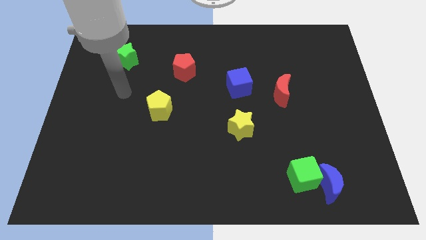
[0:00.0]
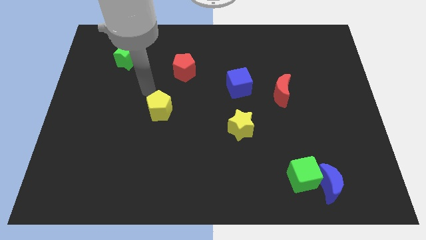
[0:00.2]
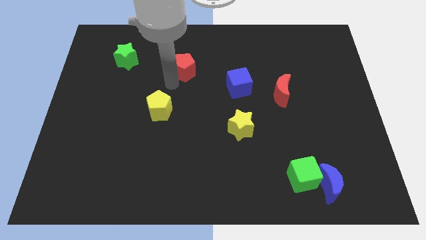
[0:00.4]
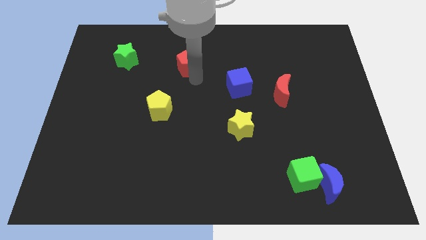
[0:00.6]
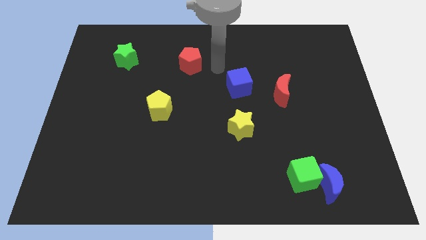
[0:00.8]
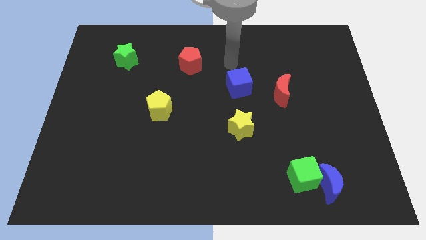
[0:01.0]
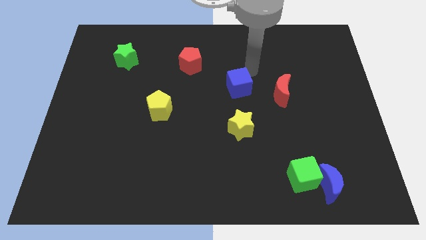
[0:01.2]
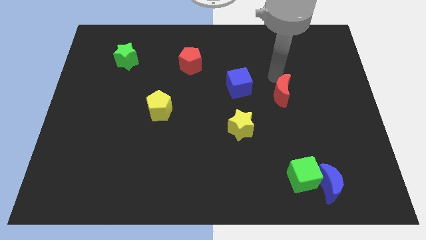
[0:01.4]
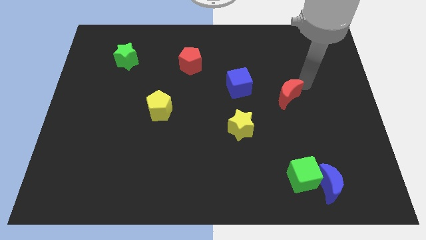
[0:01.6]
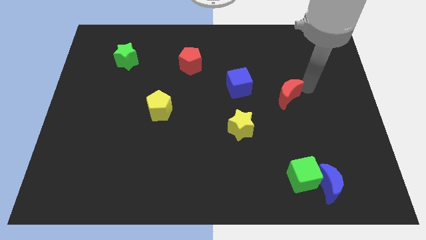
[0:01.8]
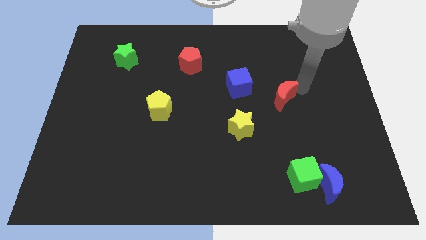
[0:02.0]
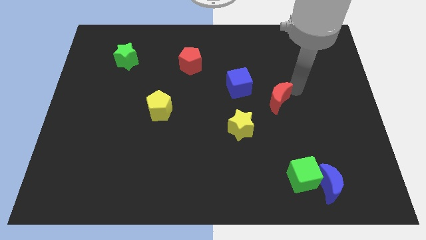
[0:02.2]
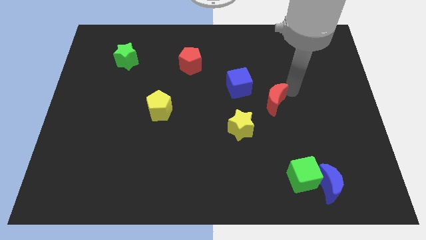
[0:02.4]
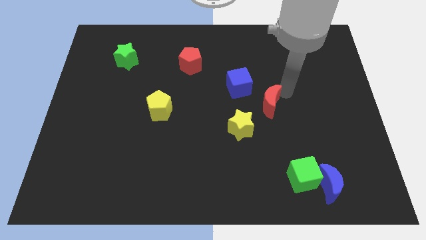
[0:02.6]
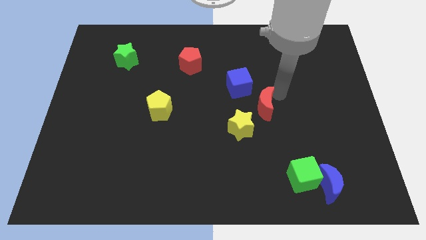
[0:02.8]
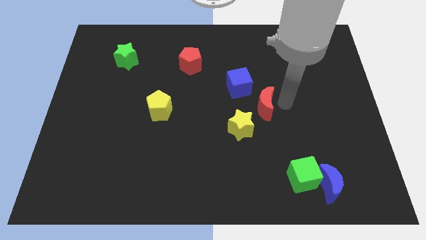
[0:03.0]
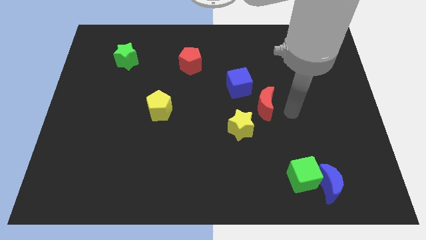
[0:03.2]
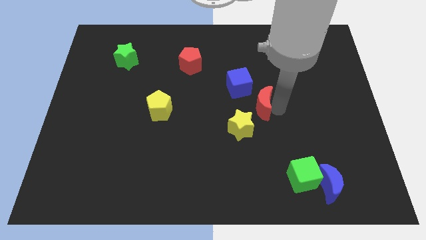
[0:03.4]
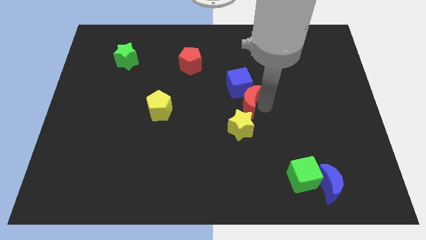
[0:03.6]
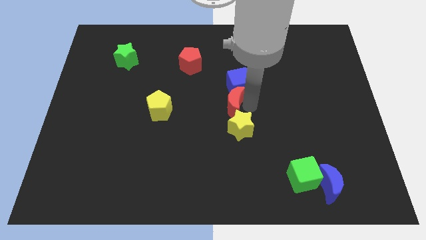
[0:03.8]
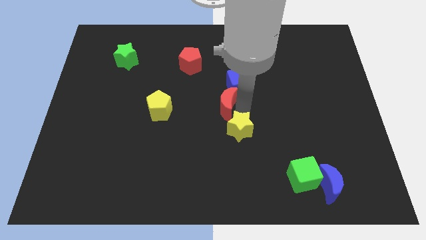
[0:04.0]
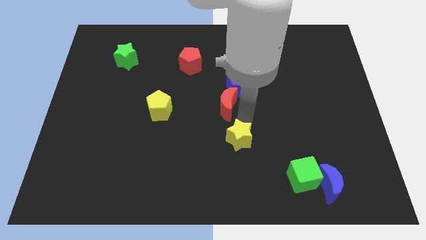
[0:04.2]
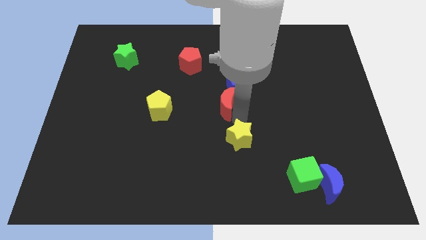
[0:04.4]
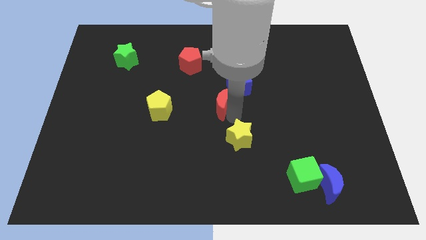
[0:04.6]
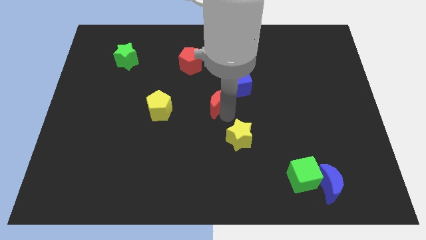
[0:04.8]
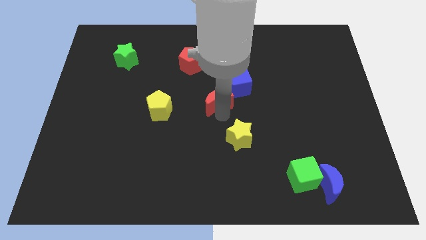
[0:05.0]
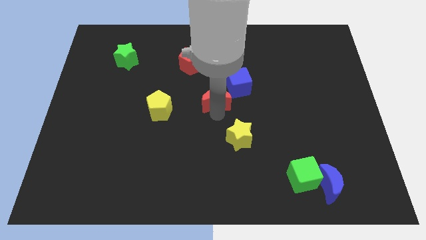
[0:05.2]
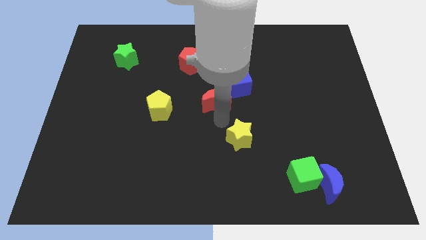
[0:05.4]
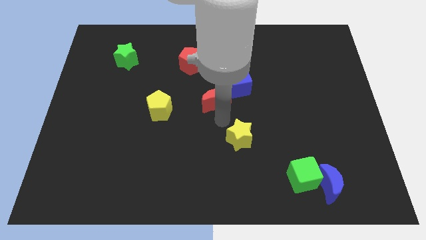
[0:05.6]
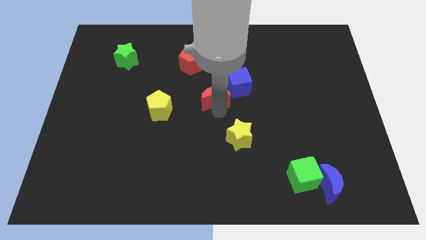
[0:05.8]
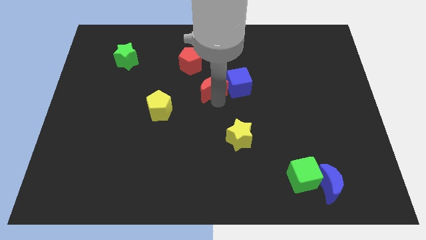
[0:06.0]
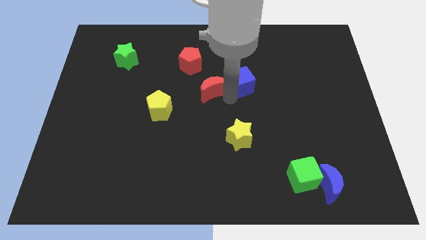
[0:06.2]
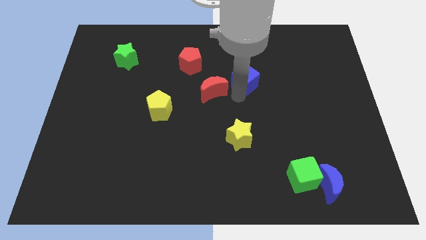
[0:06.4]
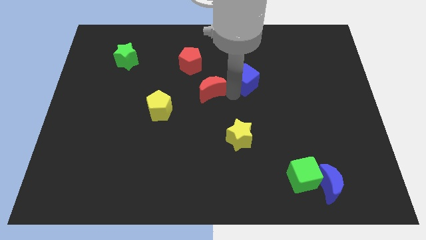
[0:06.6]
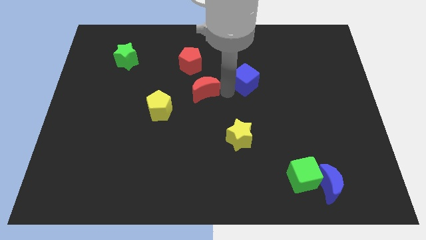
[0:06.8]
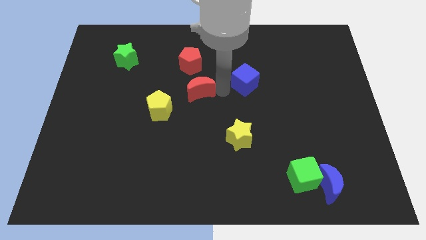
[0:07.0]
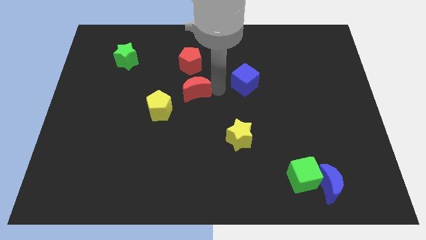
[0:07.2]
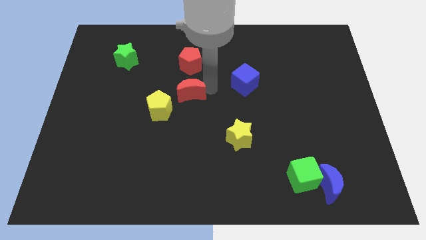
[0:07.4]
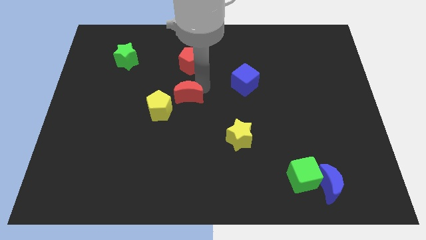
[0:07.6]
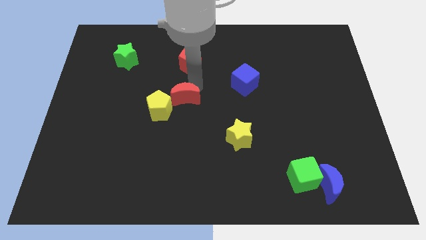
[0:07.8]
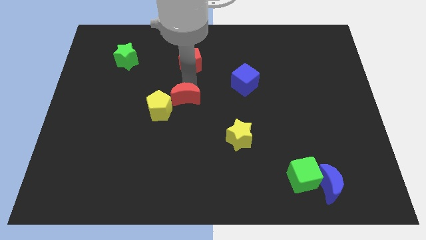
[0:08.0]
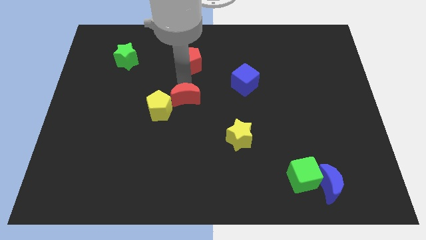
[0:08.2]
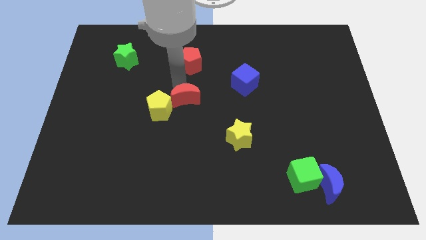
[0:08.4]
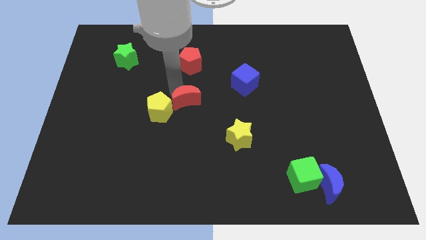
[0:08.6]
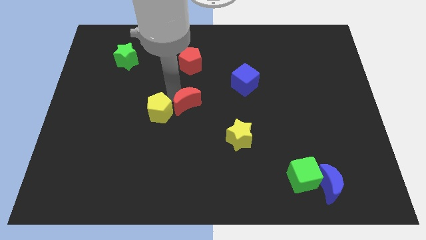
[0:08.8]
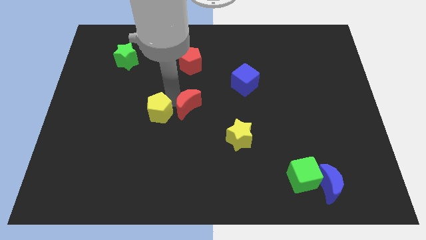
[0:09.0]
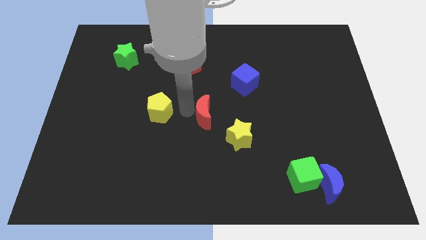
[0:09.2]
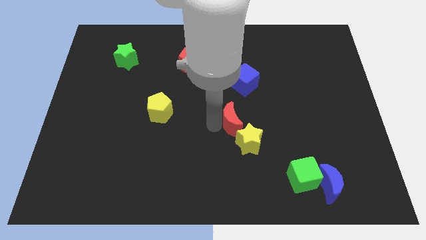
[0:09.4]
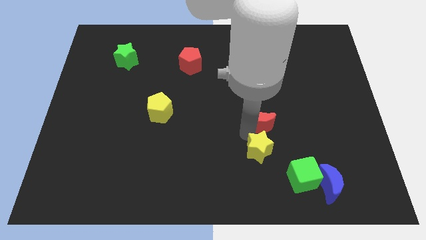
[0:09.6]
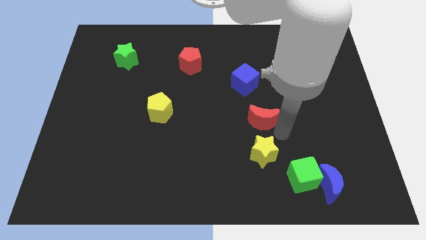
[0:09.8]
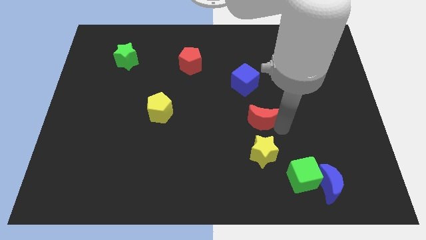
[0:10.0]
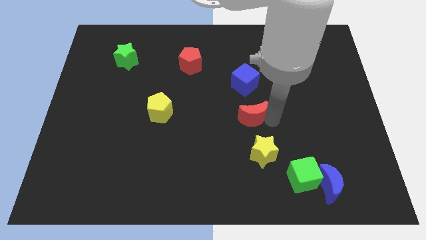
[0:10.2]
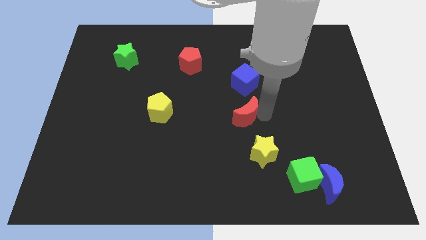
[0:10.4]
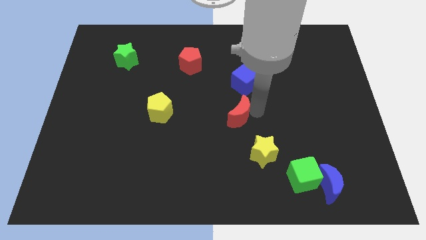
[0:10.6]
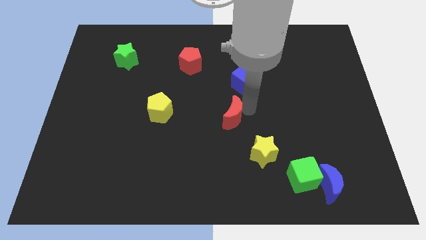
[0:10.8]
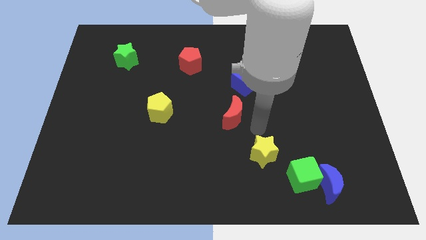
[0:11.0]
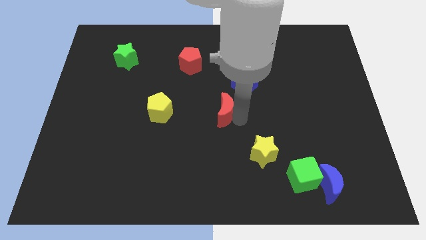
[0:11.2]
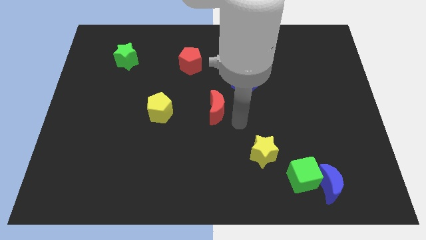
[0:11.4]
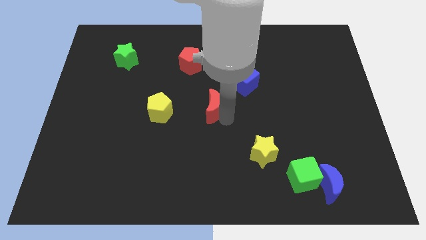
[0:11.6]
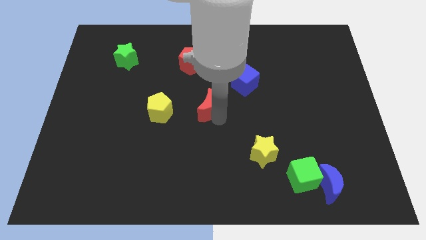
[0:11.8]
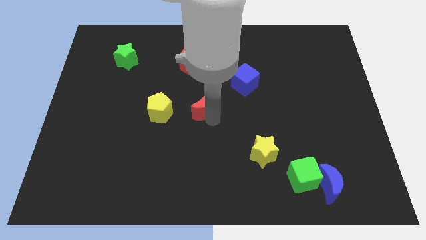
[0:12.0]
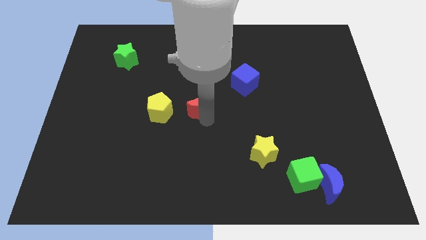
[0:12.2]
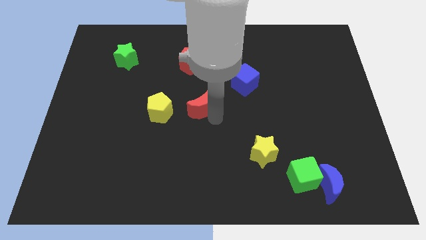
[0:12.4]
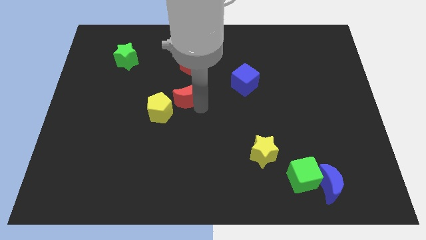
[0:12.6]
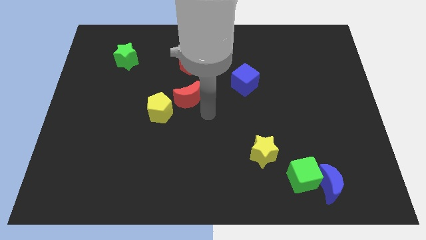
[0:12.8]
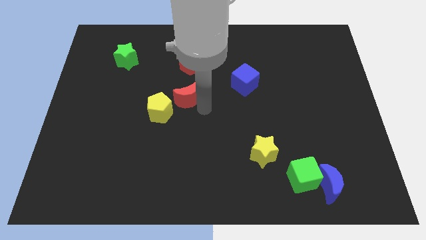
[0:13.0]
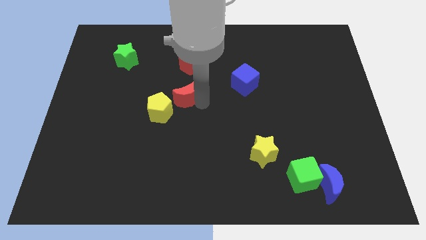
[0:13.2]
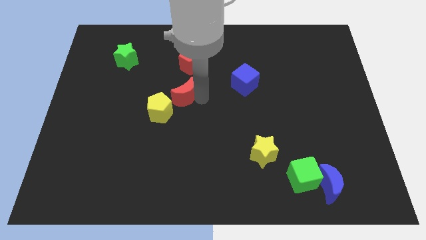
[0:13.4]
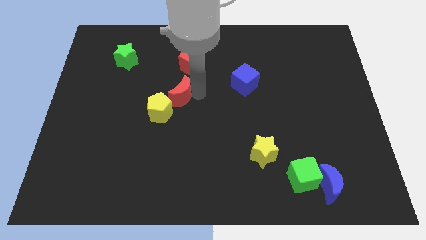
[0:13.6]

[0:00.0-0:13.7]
push the red moon to the top of the yellow pentagon

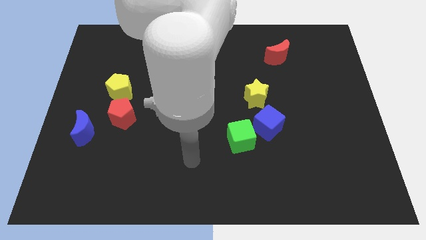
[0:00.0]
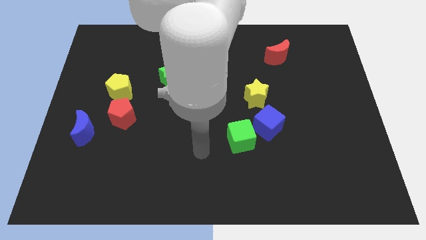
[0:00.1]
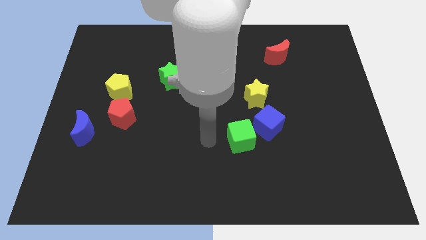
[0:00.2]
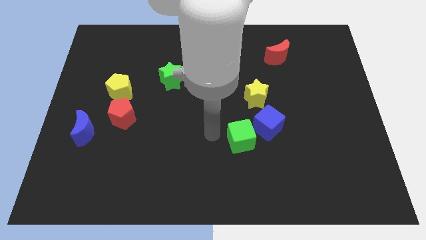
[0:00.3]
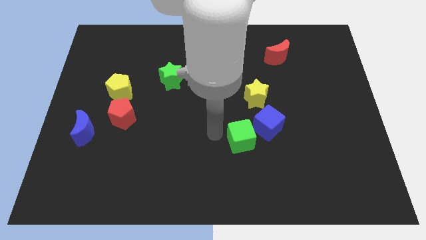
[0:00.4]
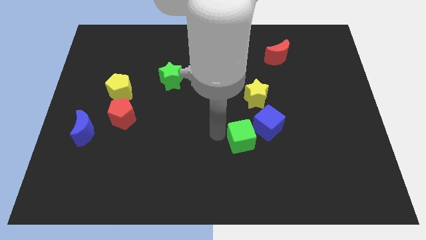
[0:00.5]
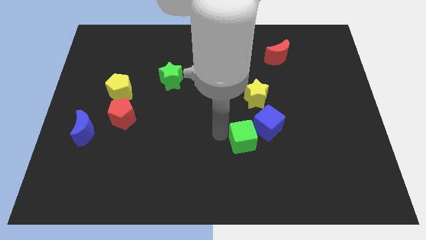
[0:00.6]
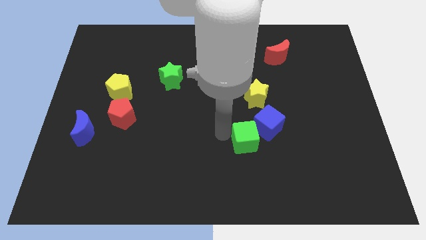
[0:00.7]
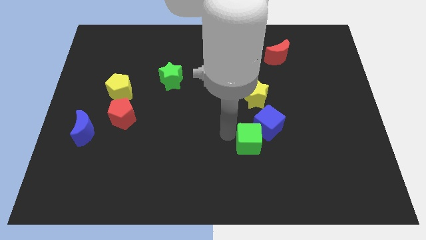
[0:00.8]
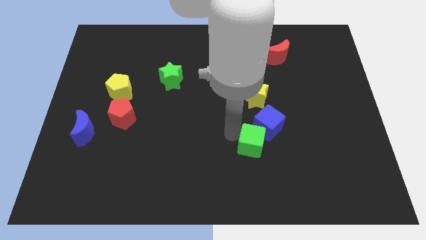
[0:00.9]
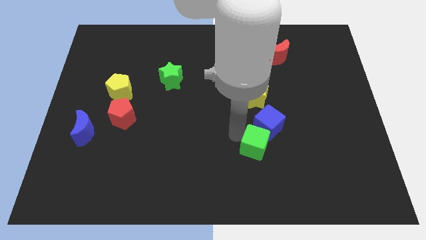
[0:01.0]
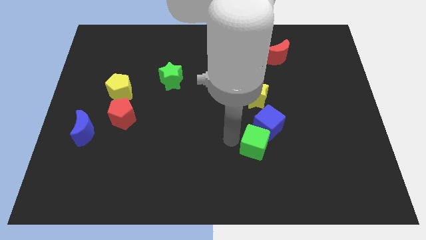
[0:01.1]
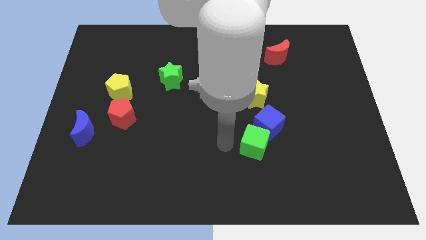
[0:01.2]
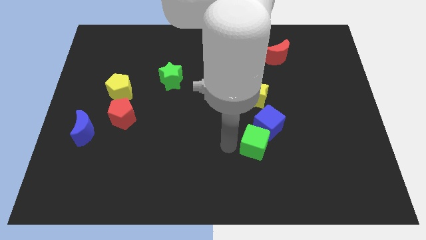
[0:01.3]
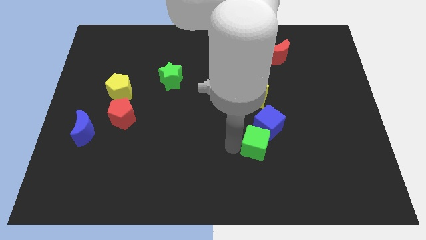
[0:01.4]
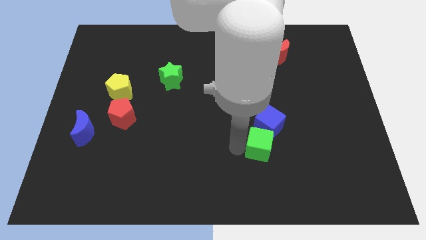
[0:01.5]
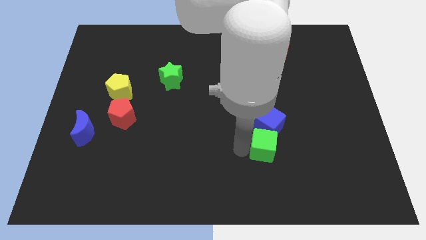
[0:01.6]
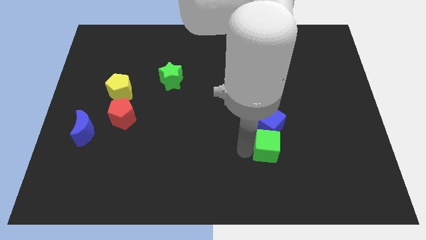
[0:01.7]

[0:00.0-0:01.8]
push the green cube to the bottom right of the blue cube
